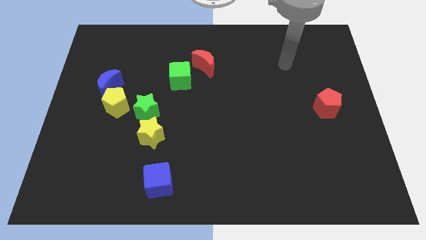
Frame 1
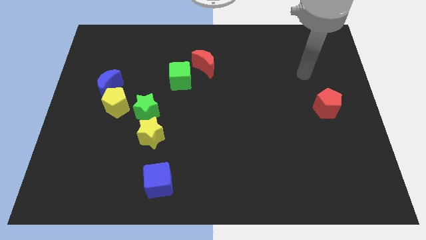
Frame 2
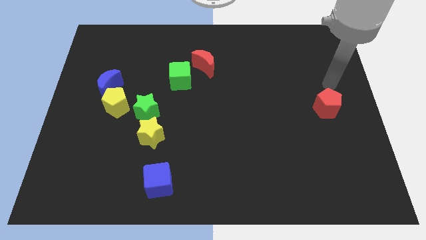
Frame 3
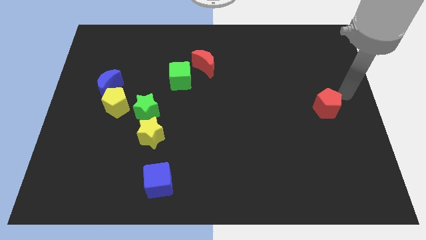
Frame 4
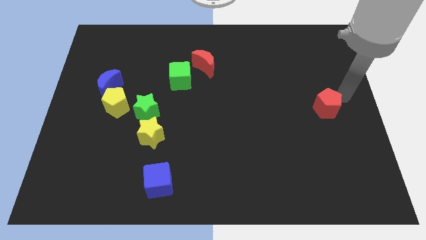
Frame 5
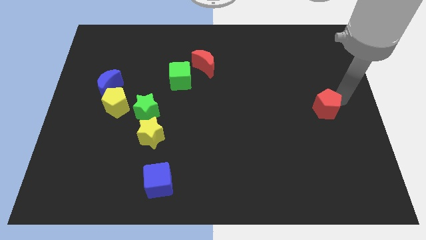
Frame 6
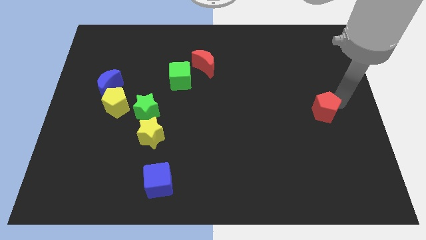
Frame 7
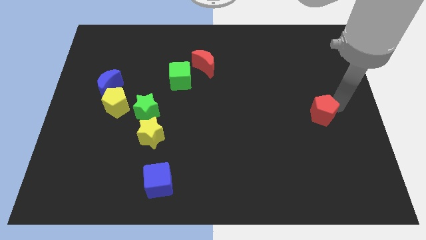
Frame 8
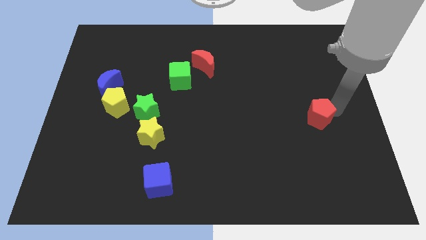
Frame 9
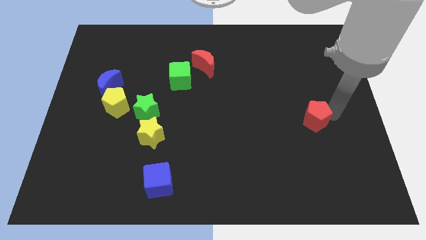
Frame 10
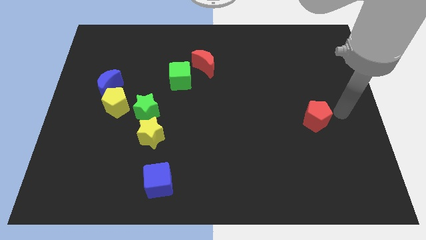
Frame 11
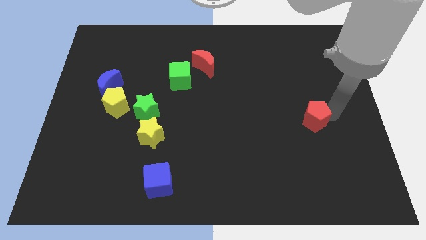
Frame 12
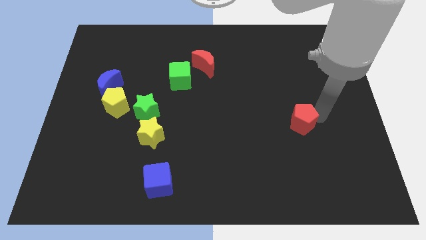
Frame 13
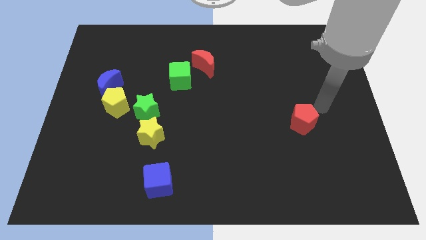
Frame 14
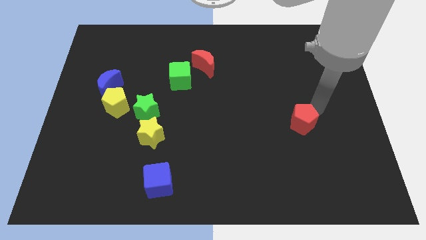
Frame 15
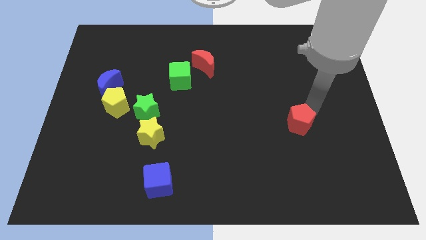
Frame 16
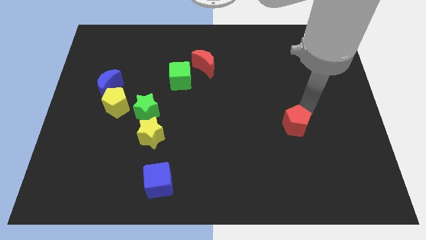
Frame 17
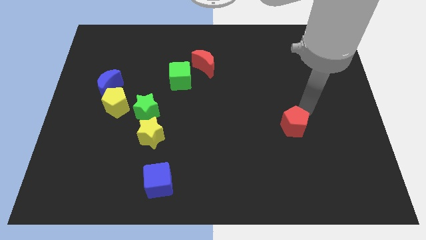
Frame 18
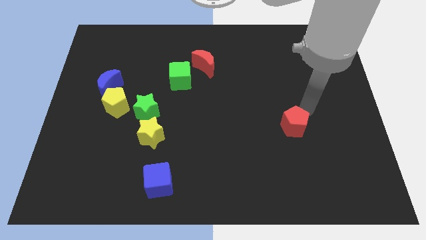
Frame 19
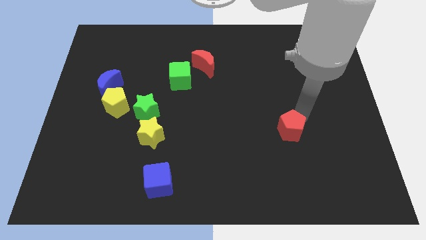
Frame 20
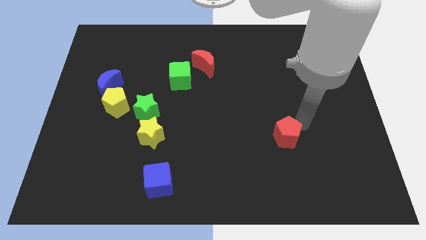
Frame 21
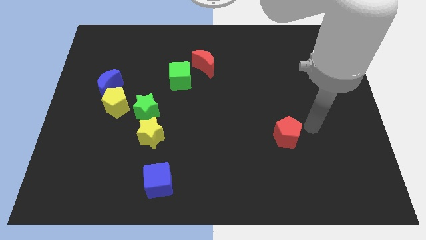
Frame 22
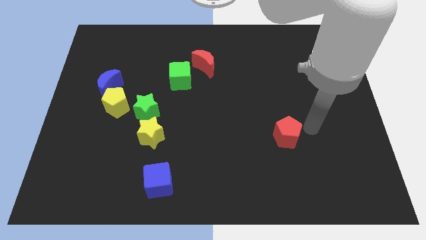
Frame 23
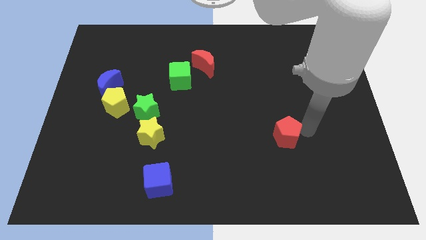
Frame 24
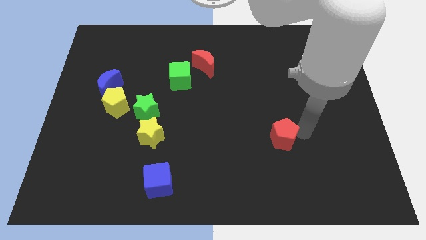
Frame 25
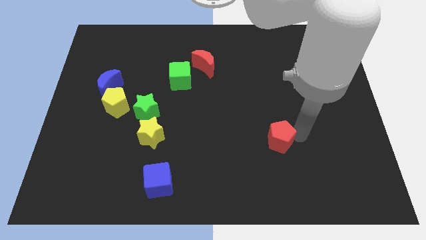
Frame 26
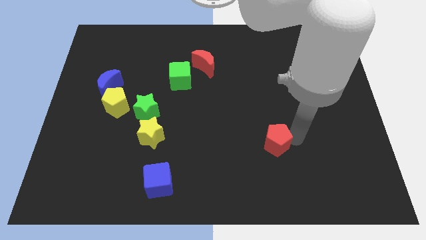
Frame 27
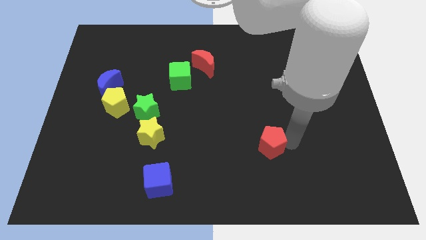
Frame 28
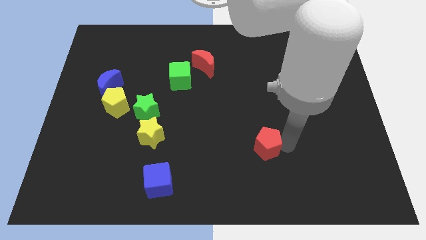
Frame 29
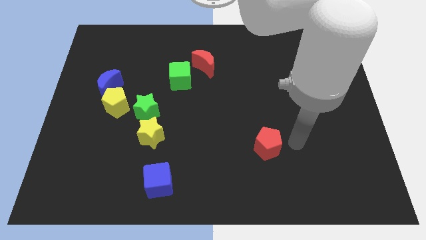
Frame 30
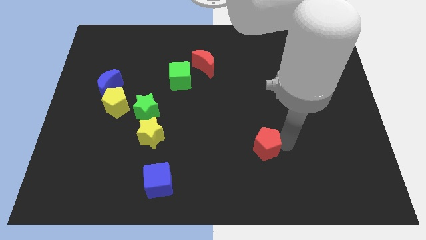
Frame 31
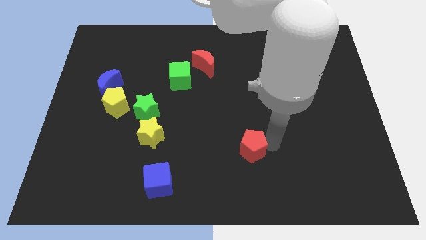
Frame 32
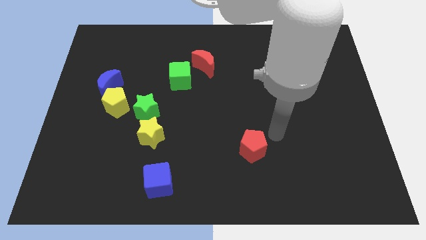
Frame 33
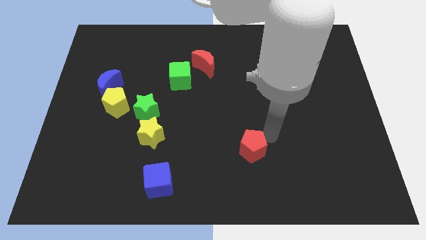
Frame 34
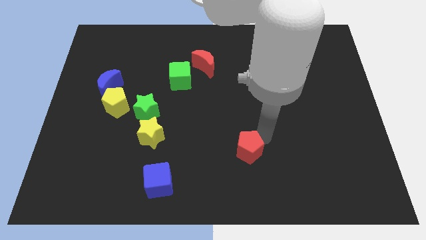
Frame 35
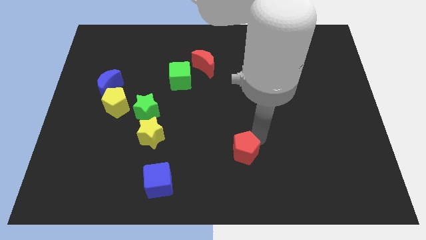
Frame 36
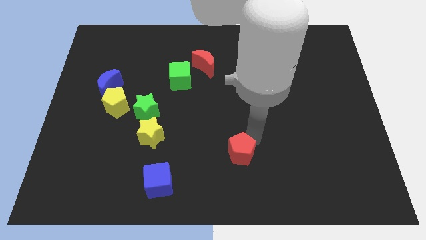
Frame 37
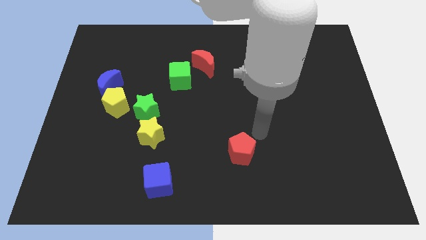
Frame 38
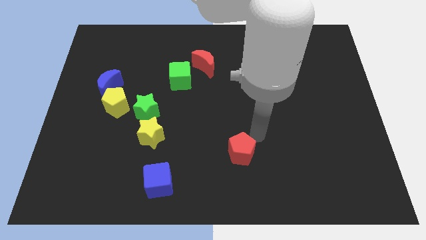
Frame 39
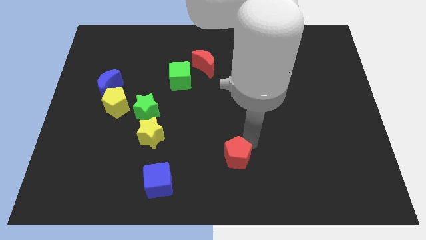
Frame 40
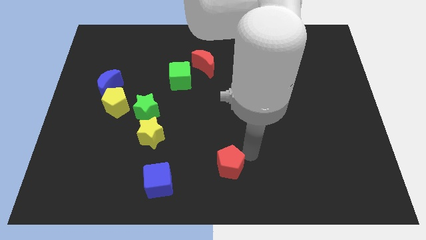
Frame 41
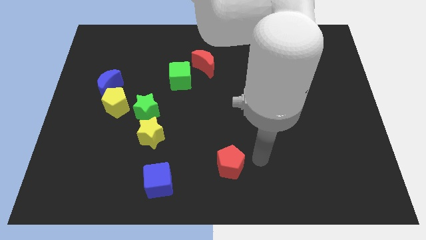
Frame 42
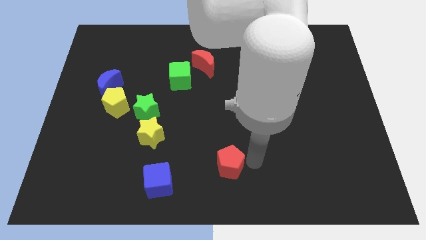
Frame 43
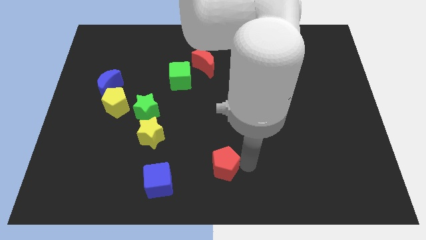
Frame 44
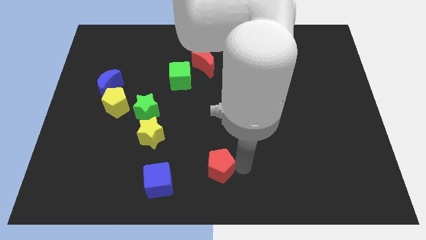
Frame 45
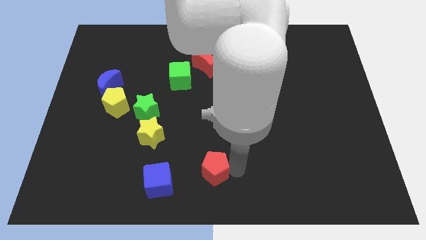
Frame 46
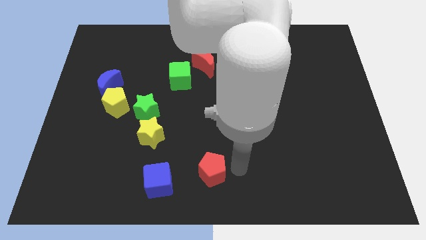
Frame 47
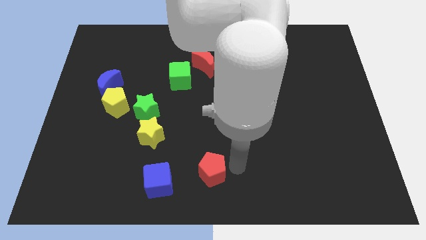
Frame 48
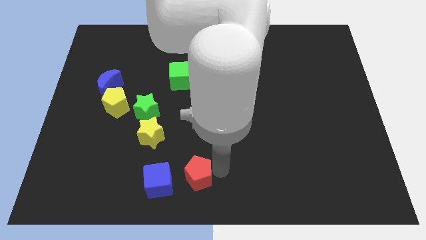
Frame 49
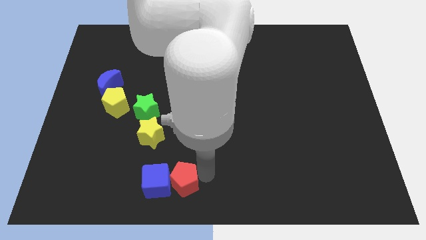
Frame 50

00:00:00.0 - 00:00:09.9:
put the red pentagon close to the blue cube

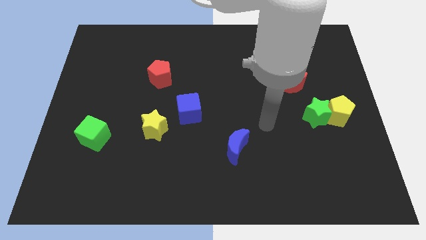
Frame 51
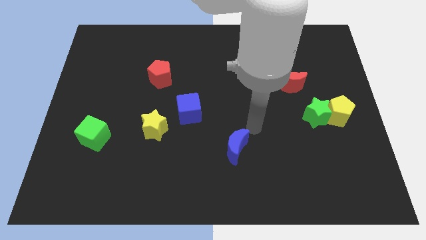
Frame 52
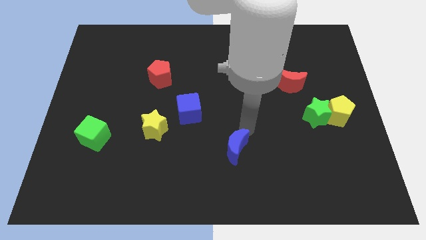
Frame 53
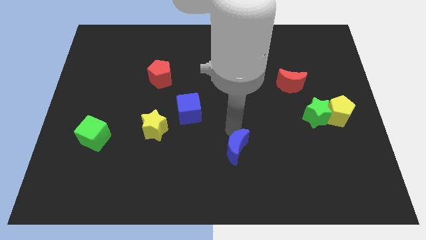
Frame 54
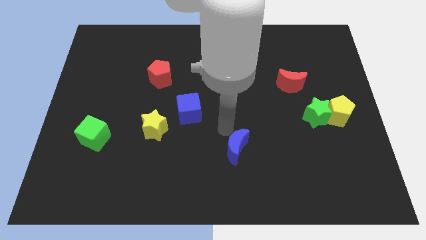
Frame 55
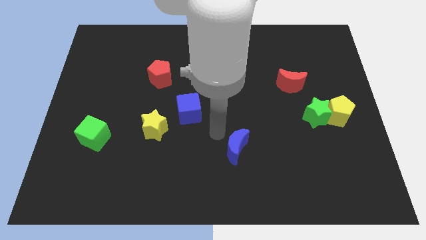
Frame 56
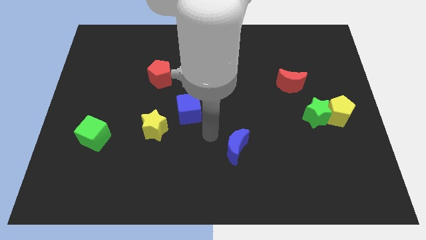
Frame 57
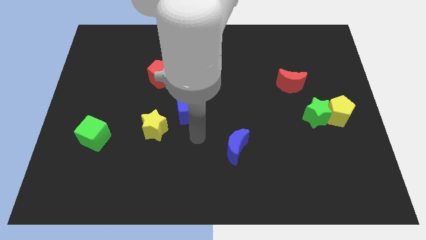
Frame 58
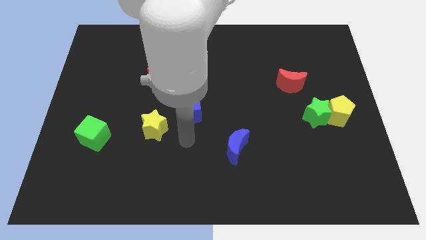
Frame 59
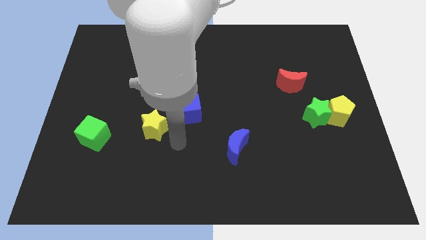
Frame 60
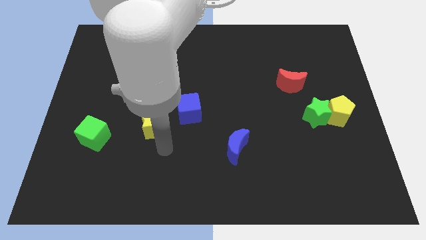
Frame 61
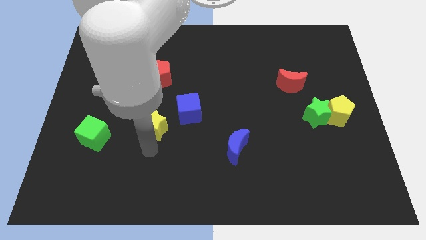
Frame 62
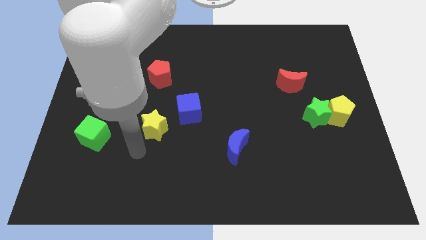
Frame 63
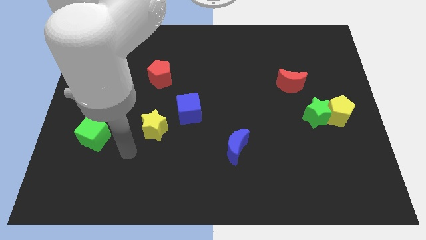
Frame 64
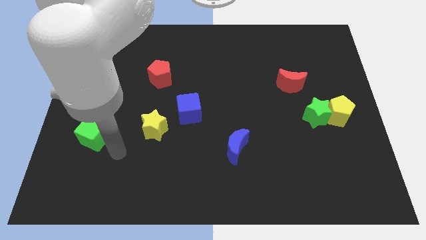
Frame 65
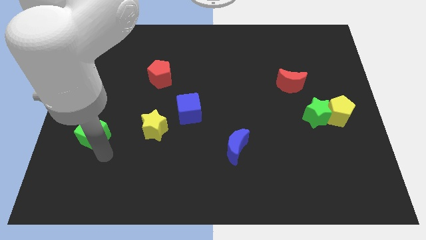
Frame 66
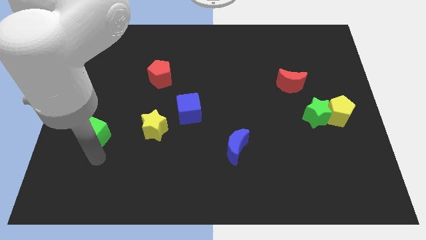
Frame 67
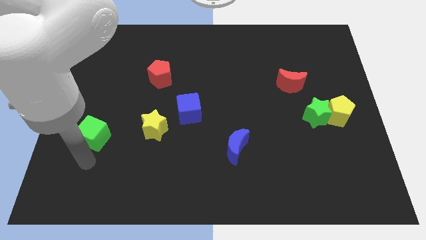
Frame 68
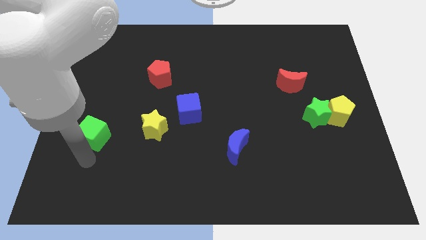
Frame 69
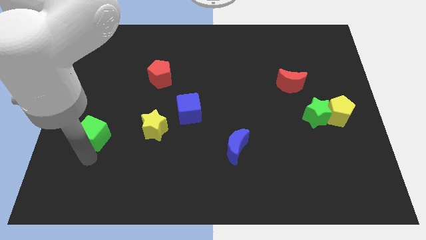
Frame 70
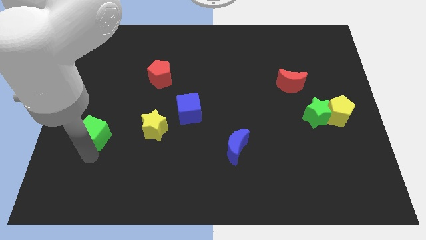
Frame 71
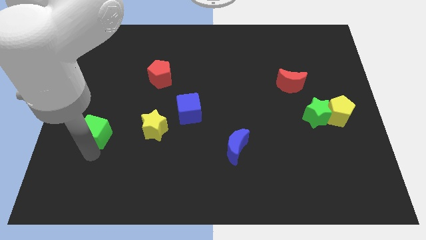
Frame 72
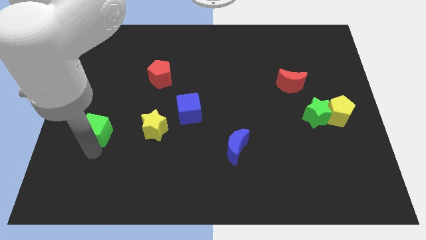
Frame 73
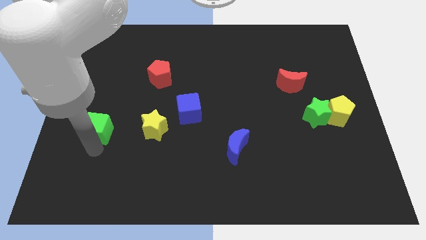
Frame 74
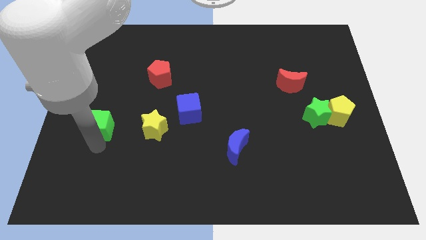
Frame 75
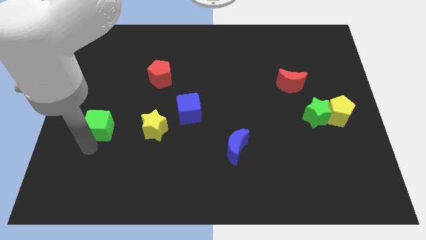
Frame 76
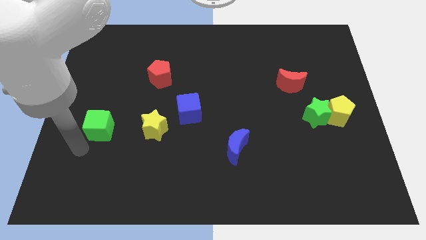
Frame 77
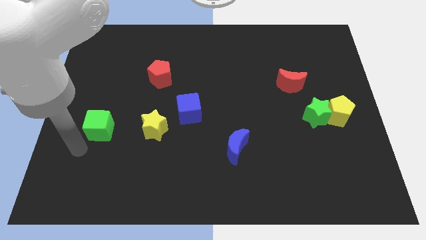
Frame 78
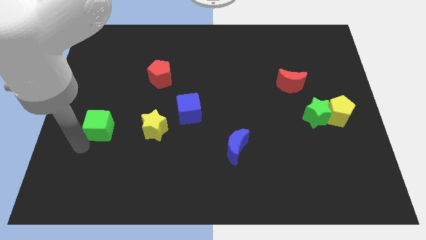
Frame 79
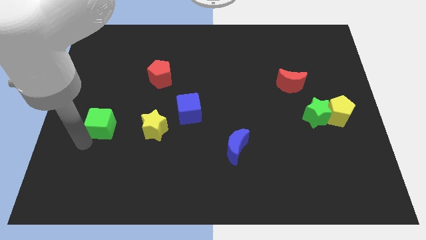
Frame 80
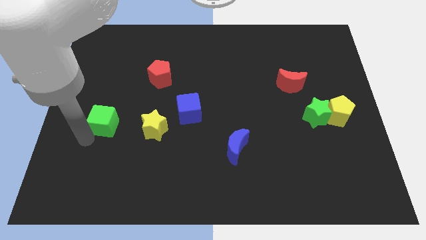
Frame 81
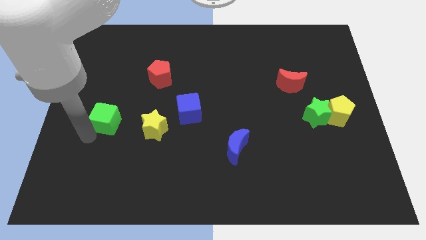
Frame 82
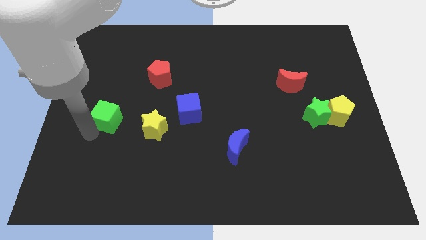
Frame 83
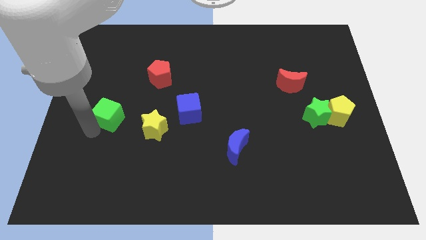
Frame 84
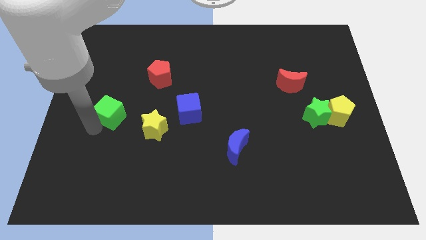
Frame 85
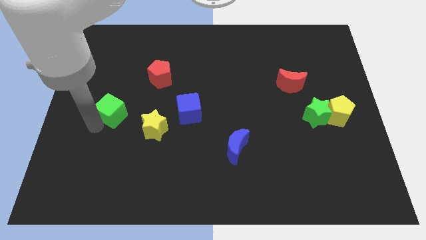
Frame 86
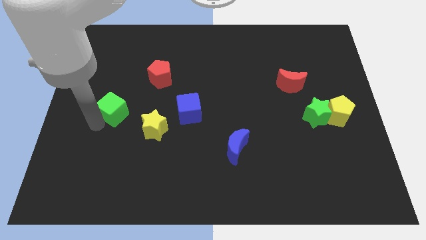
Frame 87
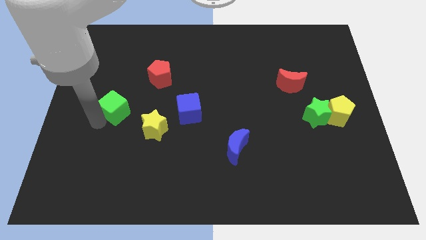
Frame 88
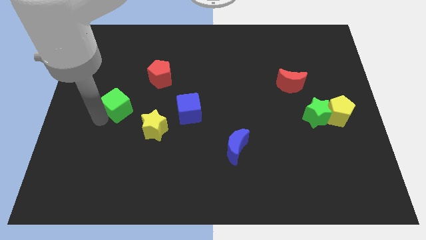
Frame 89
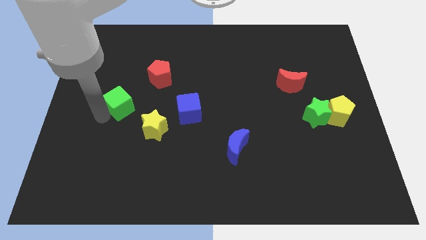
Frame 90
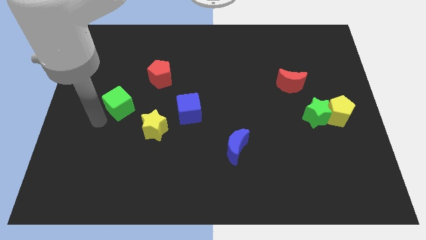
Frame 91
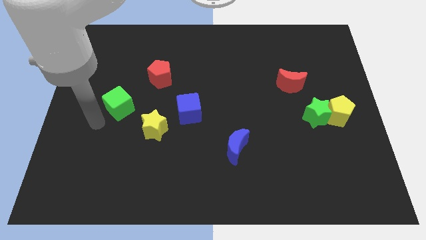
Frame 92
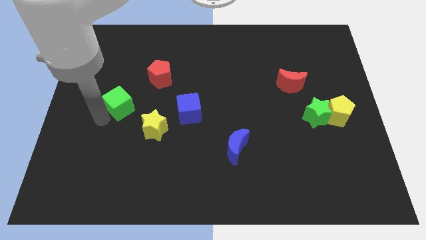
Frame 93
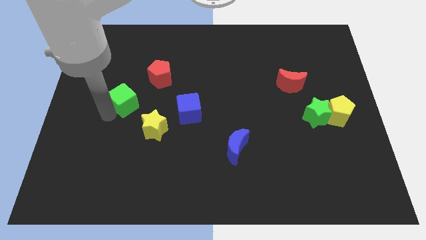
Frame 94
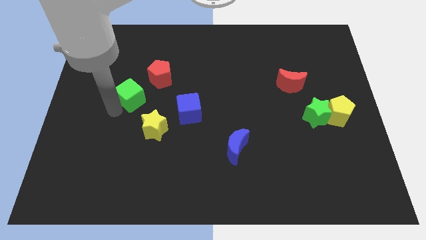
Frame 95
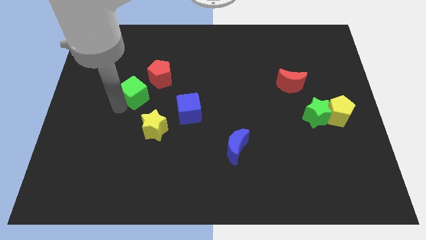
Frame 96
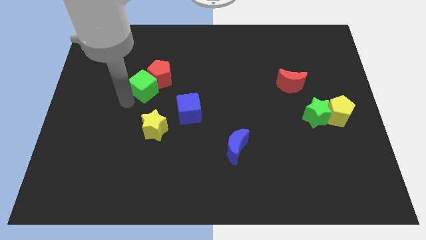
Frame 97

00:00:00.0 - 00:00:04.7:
put the green cube towards the red pentagon
